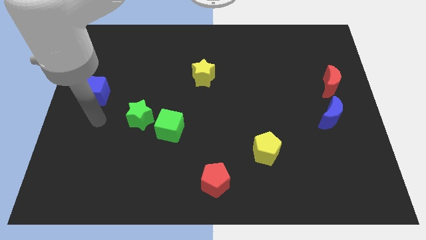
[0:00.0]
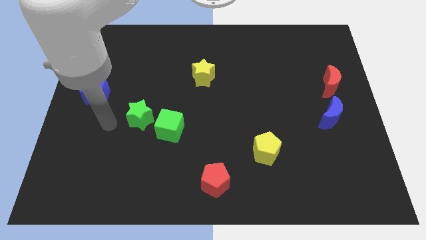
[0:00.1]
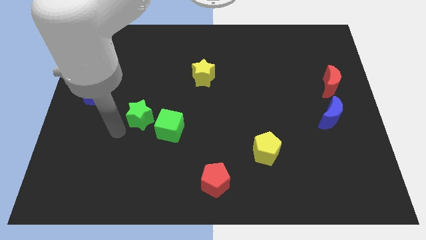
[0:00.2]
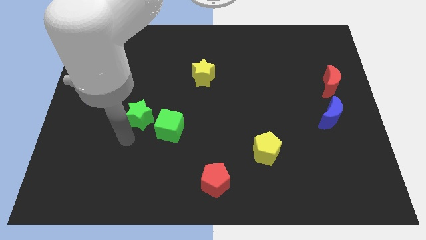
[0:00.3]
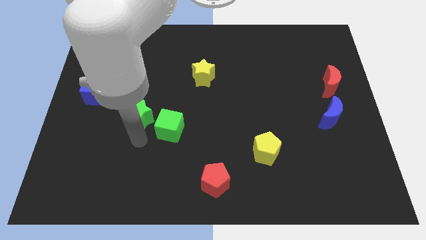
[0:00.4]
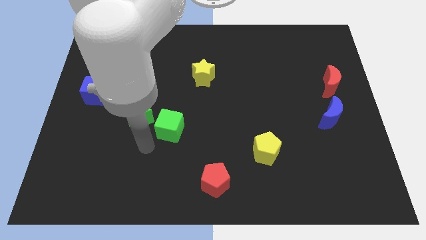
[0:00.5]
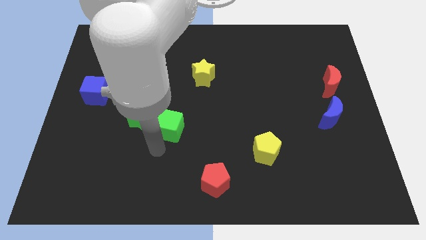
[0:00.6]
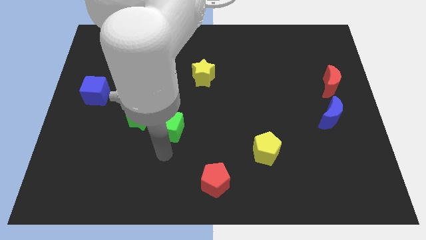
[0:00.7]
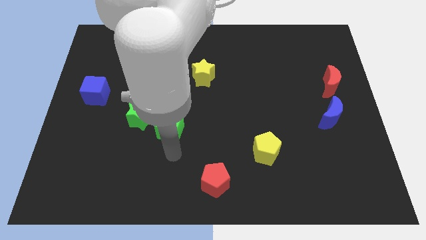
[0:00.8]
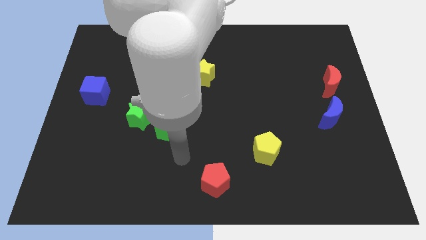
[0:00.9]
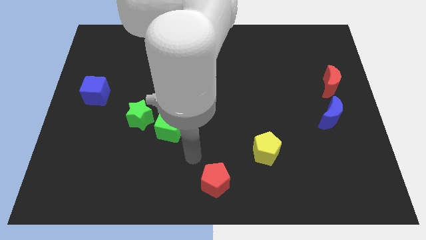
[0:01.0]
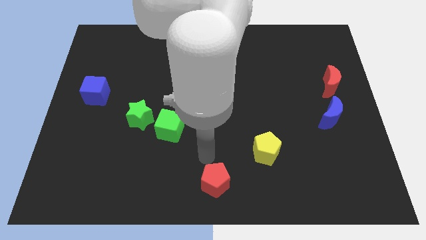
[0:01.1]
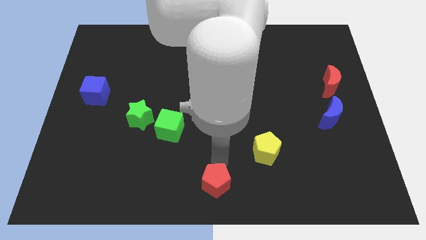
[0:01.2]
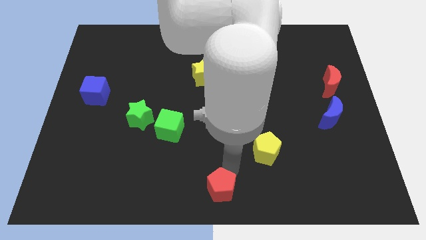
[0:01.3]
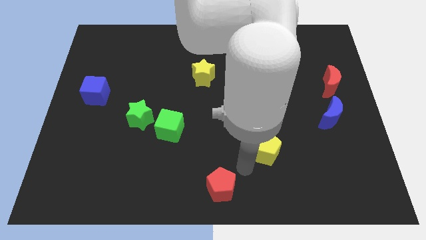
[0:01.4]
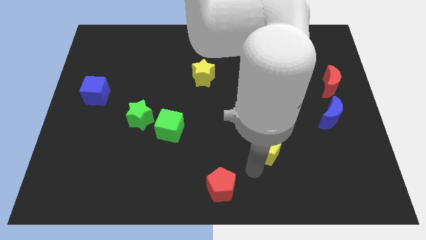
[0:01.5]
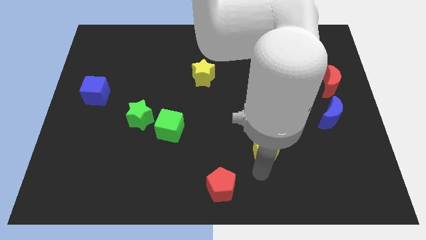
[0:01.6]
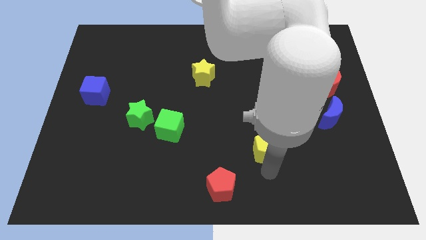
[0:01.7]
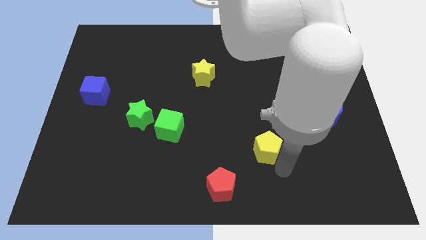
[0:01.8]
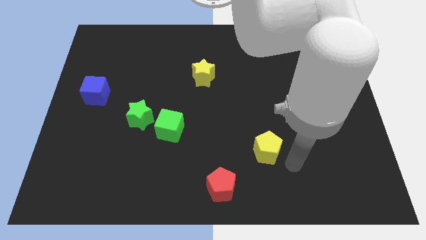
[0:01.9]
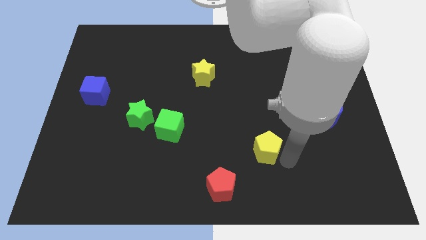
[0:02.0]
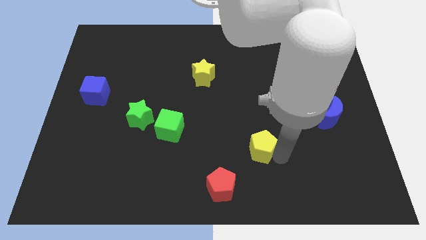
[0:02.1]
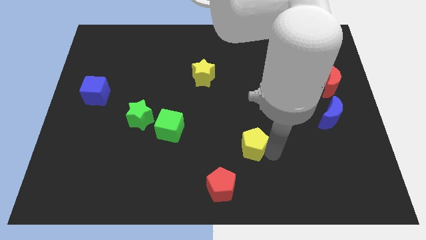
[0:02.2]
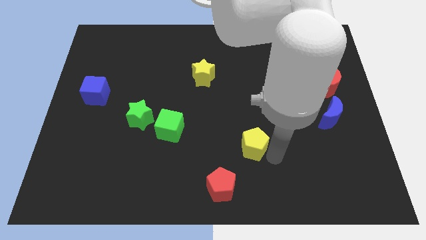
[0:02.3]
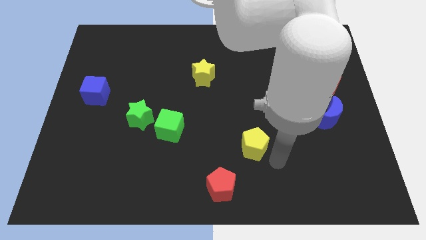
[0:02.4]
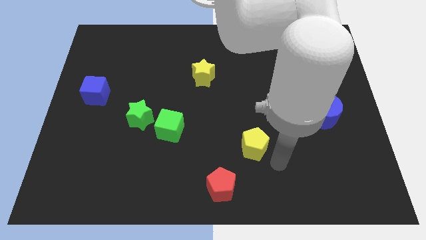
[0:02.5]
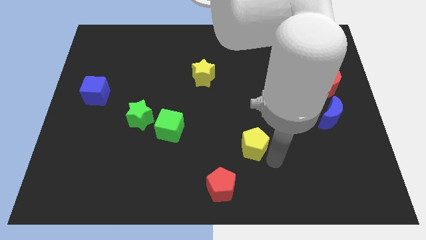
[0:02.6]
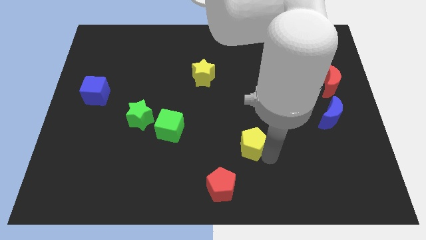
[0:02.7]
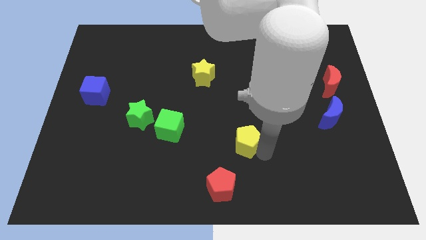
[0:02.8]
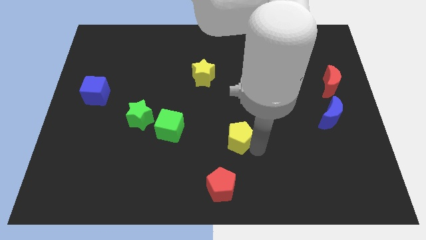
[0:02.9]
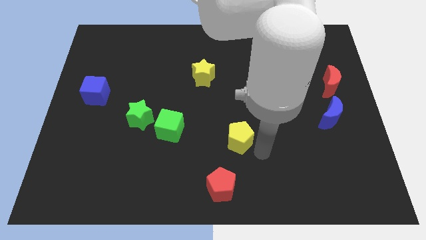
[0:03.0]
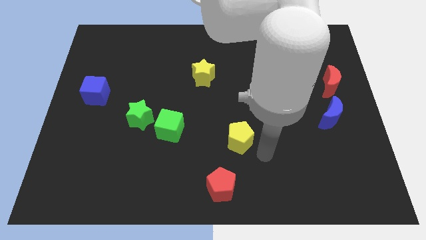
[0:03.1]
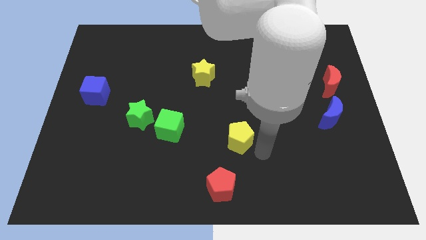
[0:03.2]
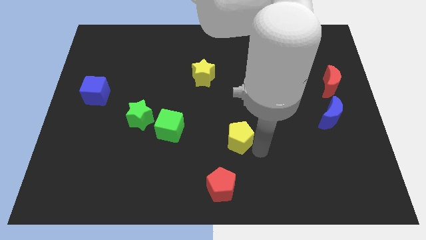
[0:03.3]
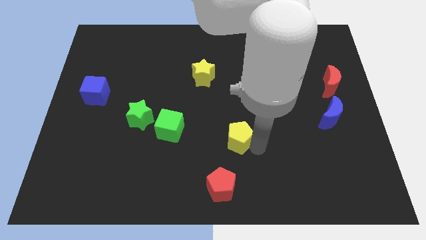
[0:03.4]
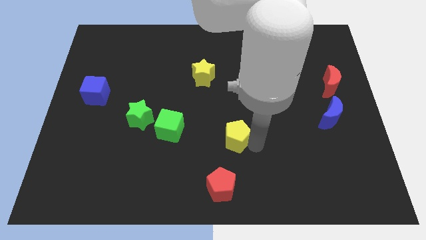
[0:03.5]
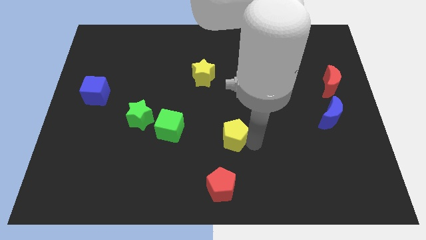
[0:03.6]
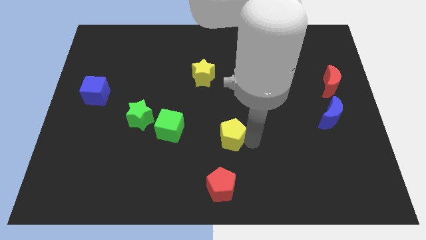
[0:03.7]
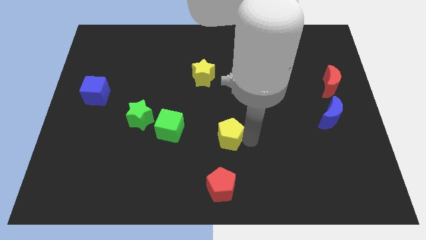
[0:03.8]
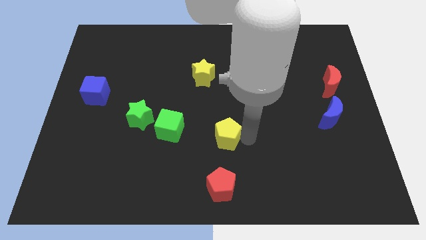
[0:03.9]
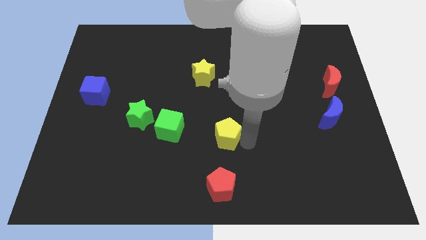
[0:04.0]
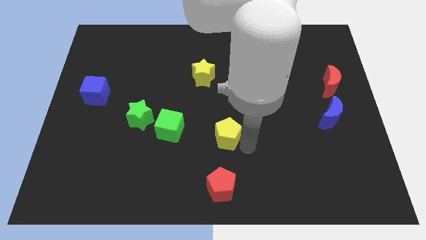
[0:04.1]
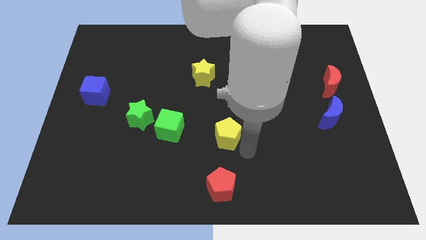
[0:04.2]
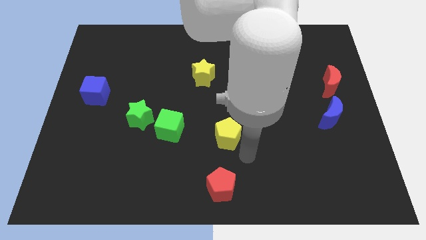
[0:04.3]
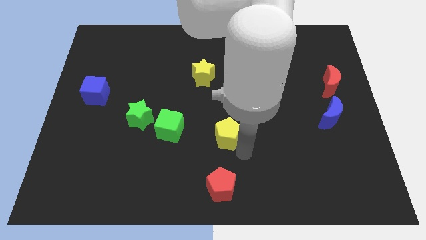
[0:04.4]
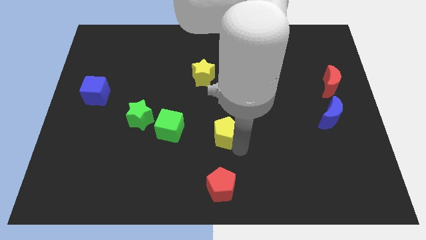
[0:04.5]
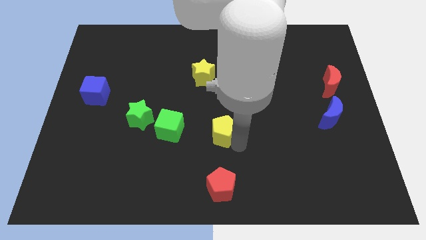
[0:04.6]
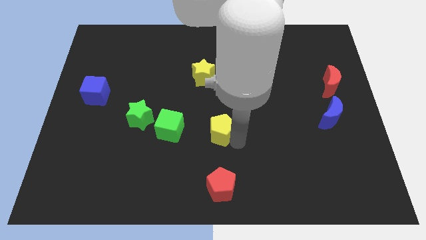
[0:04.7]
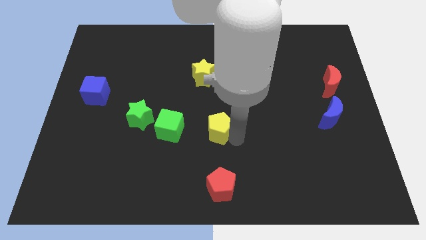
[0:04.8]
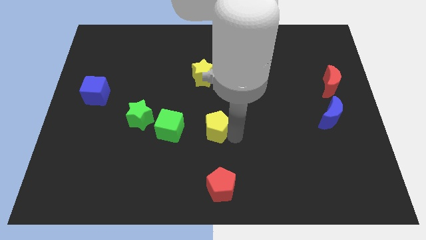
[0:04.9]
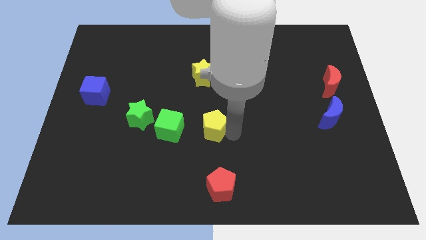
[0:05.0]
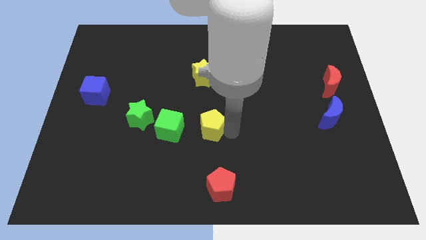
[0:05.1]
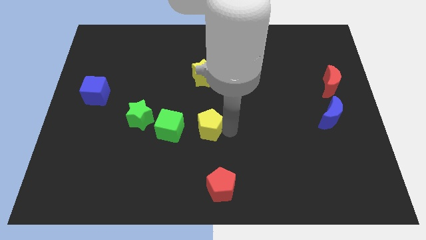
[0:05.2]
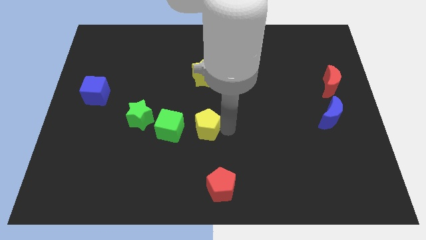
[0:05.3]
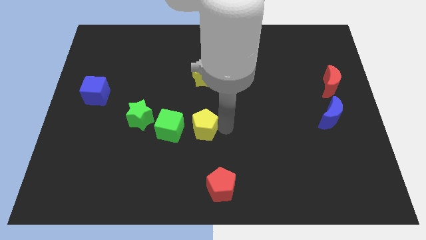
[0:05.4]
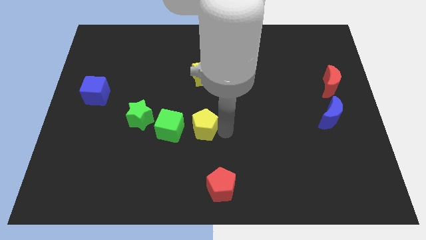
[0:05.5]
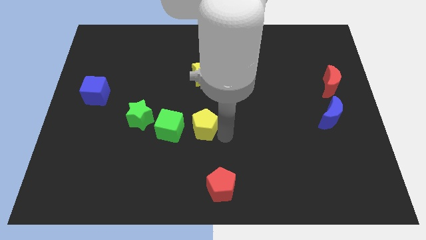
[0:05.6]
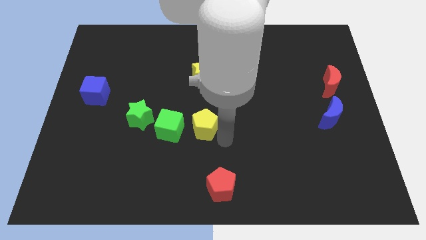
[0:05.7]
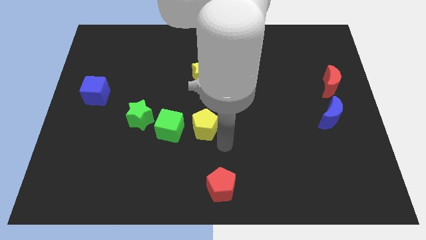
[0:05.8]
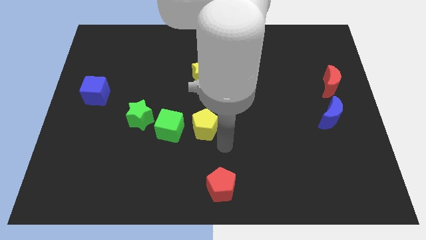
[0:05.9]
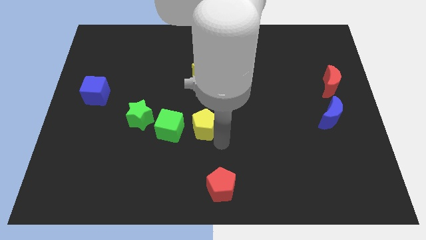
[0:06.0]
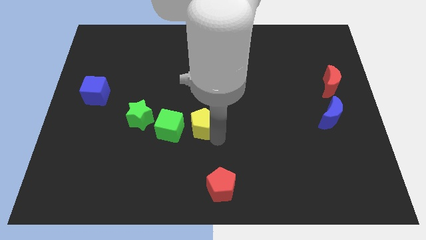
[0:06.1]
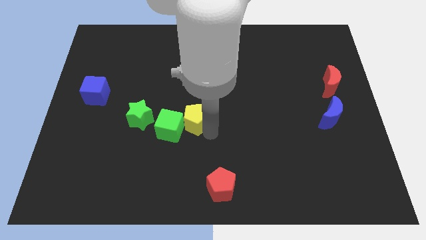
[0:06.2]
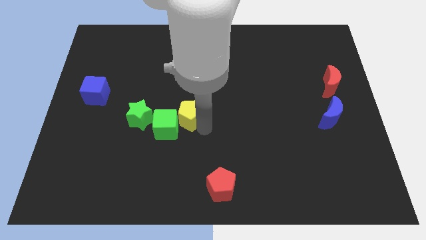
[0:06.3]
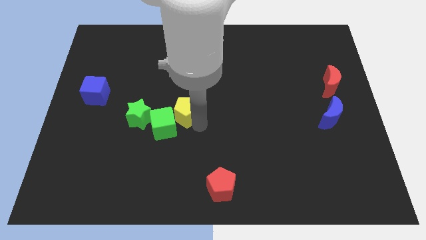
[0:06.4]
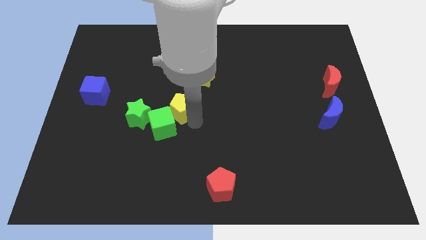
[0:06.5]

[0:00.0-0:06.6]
push the yellow pentagon to the top side of the green cube

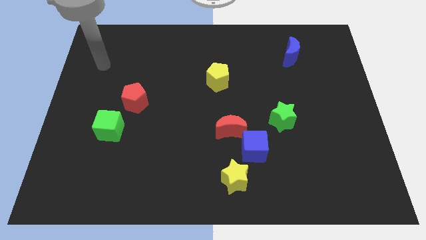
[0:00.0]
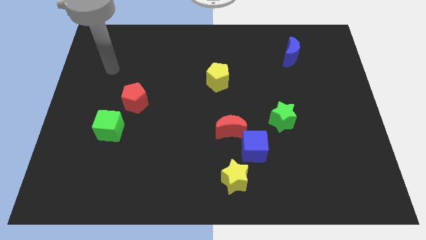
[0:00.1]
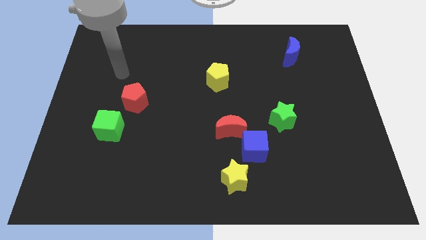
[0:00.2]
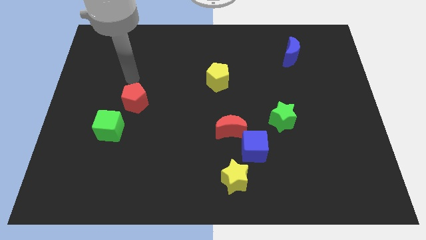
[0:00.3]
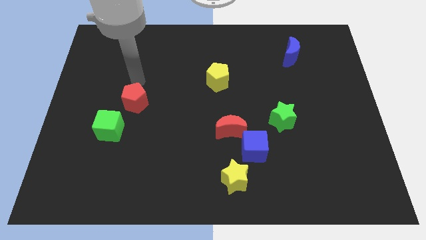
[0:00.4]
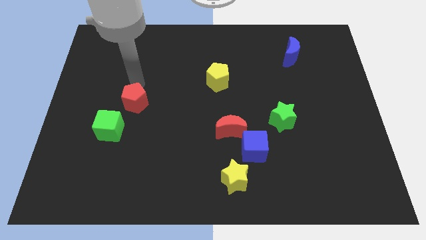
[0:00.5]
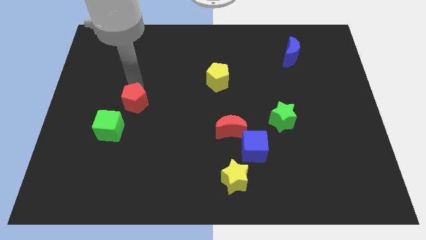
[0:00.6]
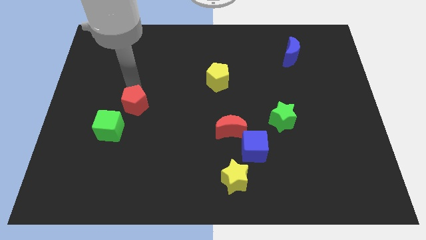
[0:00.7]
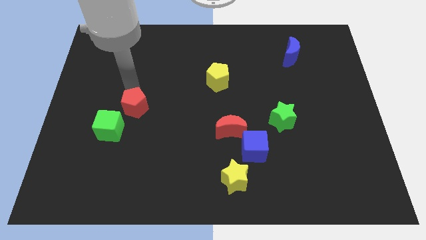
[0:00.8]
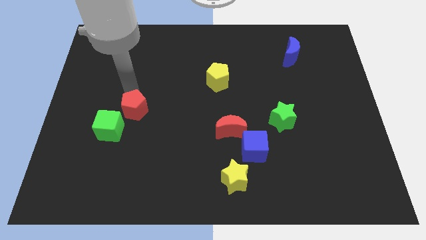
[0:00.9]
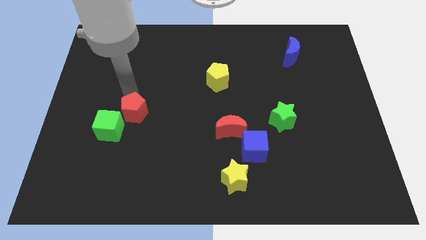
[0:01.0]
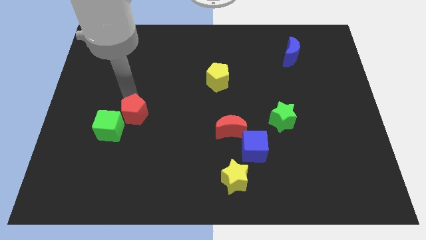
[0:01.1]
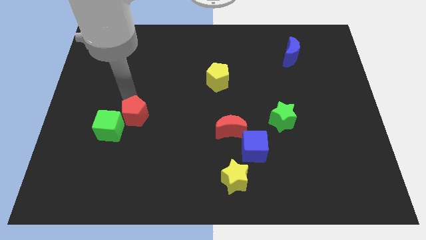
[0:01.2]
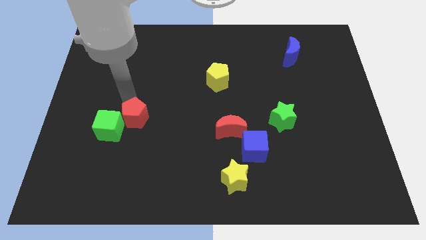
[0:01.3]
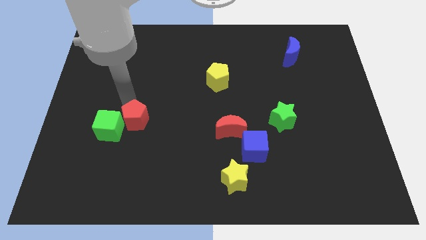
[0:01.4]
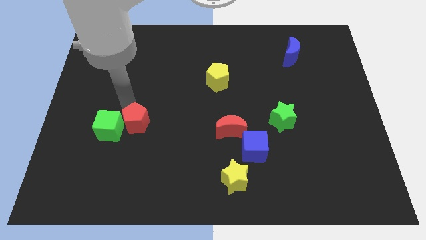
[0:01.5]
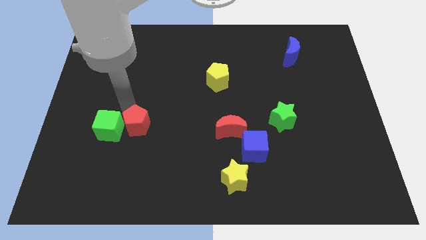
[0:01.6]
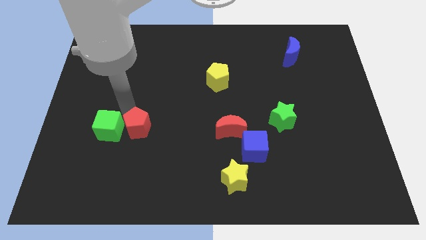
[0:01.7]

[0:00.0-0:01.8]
move the red pentagon to the bottom right side of the green cube
